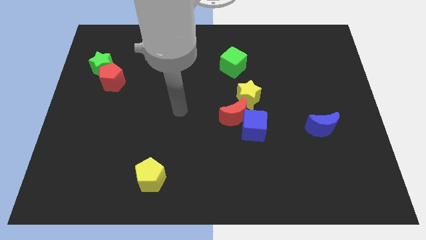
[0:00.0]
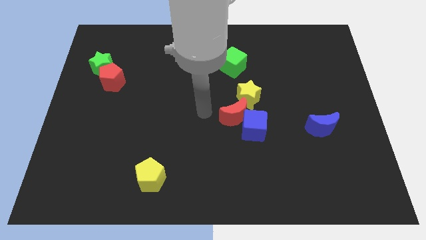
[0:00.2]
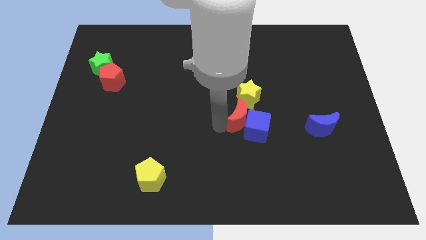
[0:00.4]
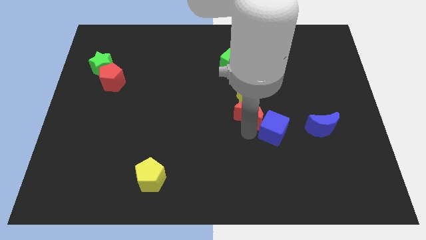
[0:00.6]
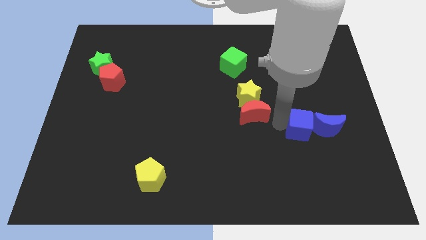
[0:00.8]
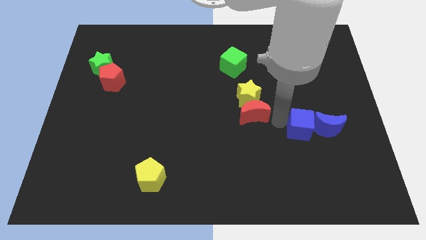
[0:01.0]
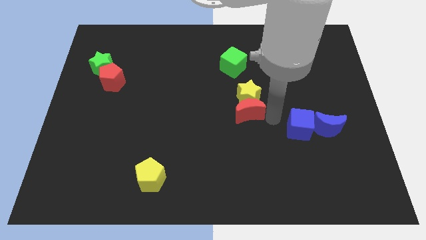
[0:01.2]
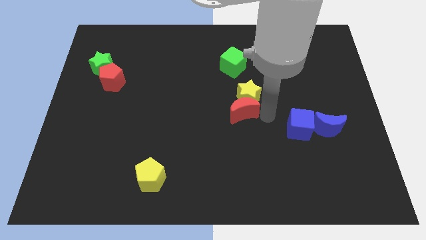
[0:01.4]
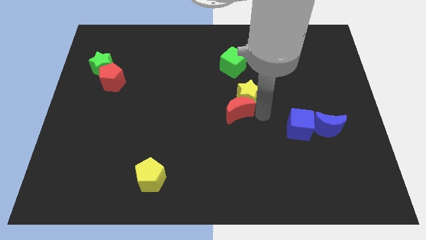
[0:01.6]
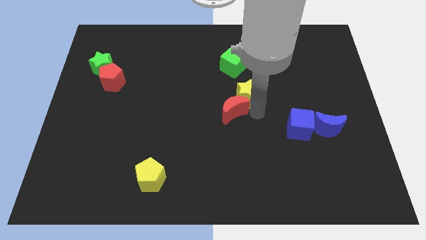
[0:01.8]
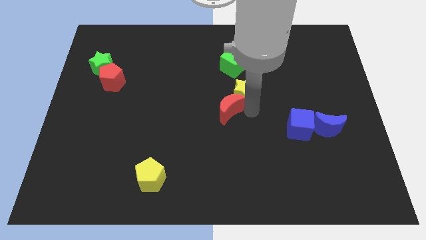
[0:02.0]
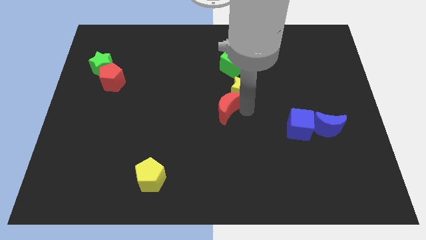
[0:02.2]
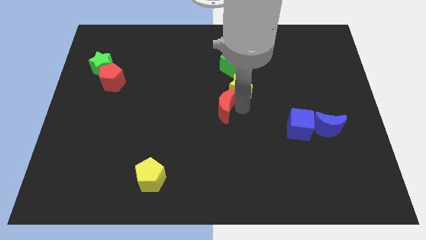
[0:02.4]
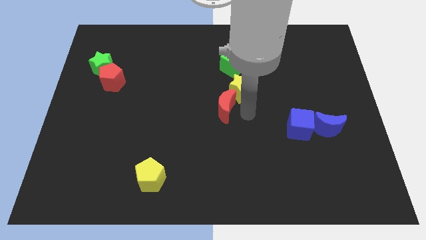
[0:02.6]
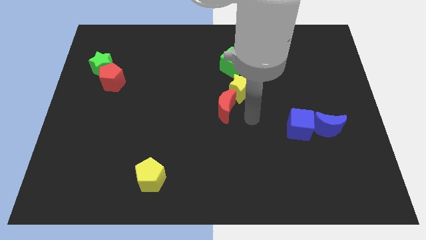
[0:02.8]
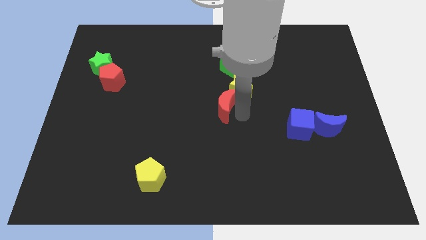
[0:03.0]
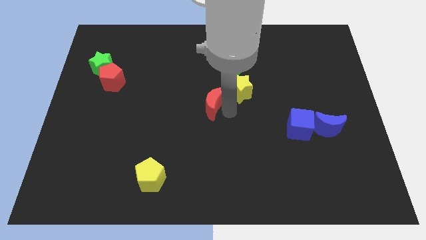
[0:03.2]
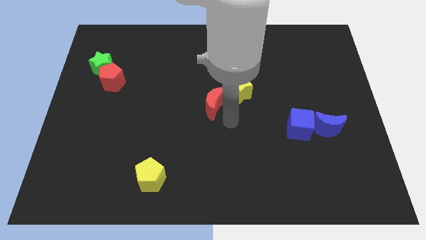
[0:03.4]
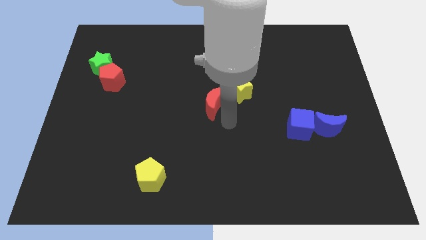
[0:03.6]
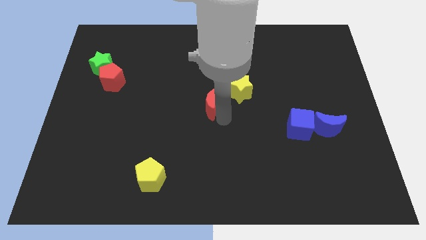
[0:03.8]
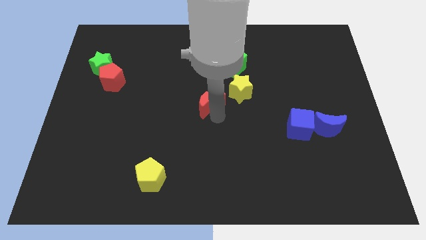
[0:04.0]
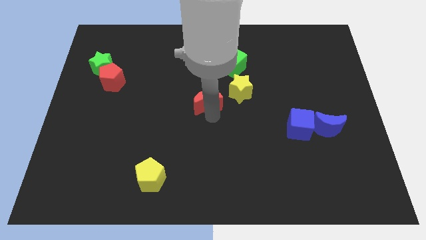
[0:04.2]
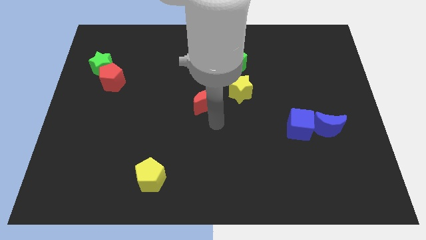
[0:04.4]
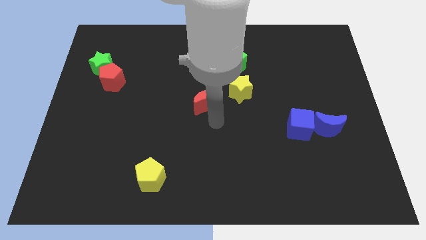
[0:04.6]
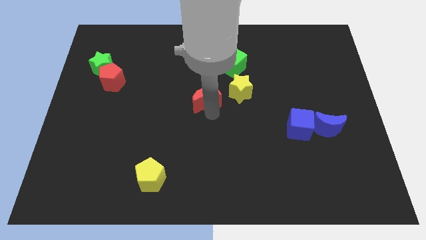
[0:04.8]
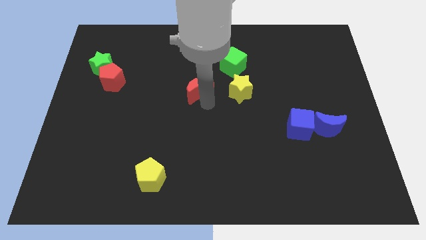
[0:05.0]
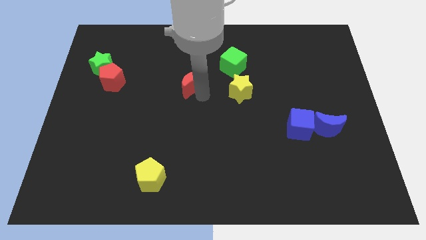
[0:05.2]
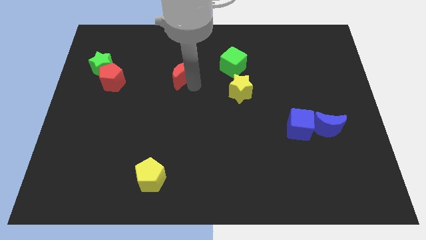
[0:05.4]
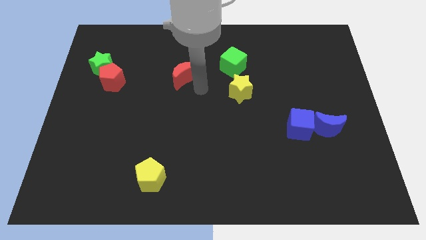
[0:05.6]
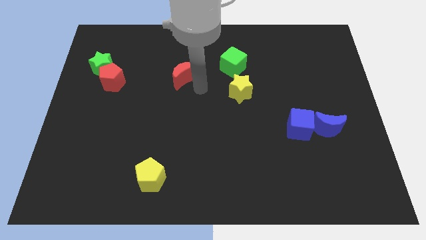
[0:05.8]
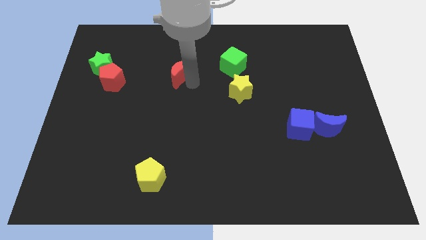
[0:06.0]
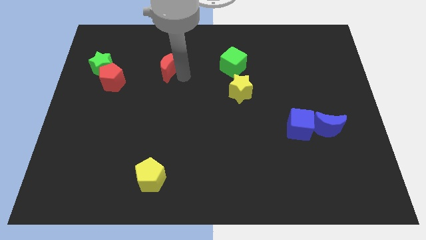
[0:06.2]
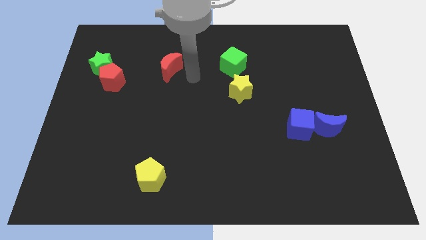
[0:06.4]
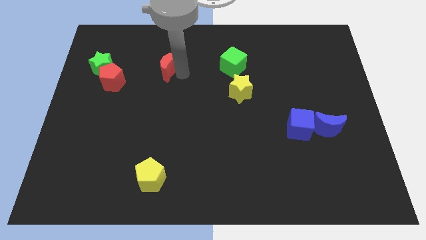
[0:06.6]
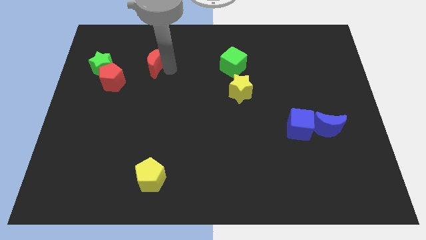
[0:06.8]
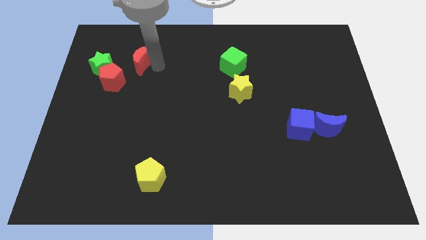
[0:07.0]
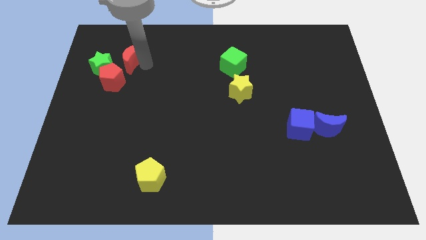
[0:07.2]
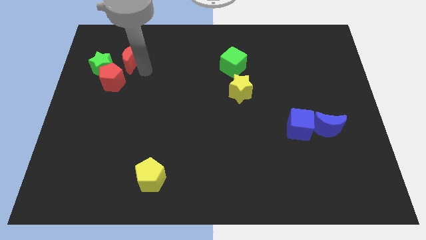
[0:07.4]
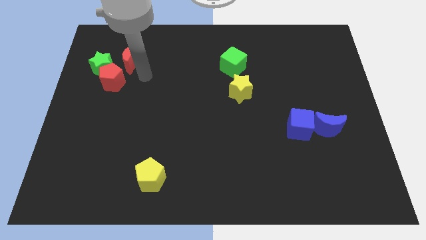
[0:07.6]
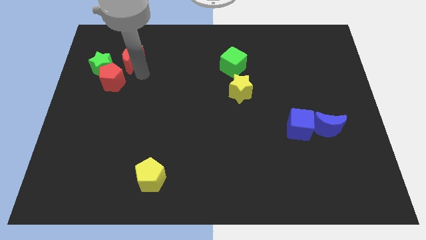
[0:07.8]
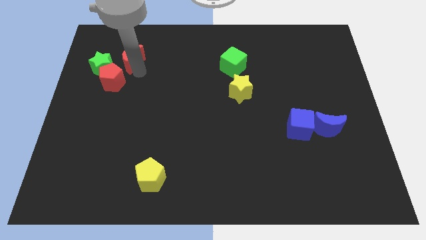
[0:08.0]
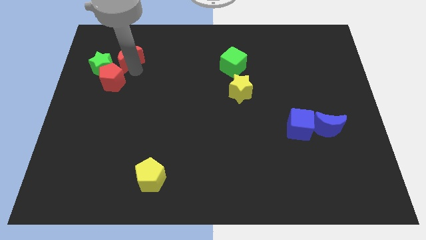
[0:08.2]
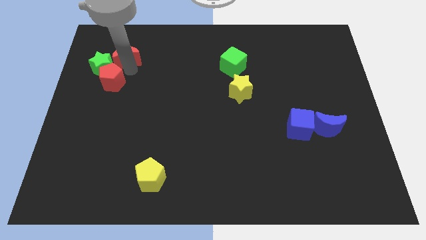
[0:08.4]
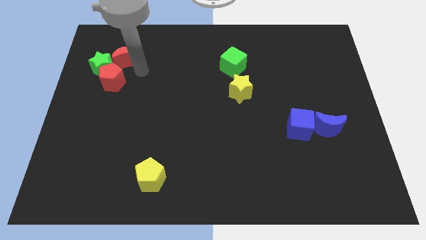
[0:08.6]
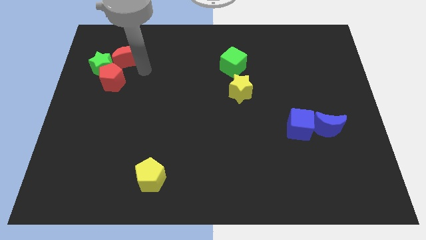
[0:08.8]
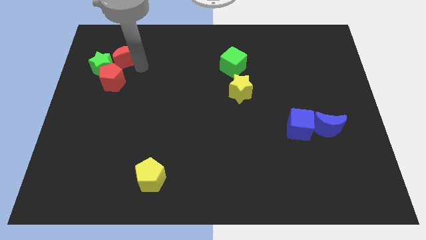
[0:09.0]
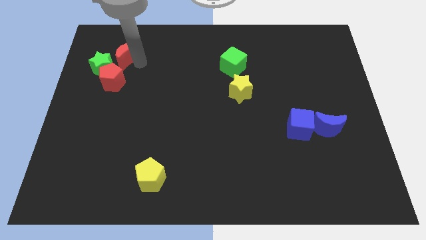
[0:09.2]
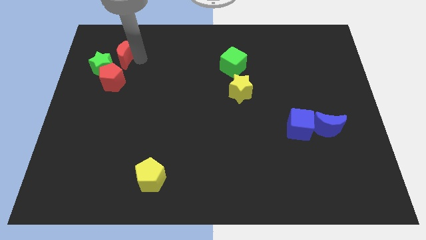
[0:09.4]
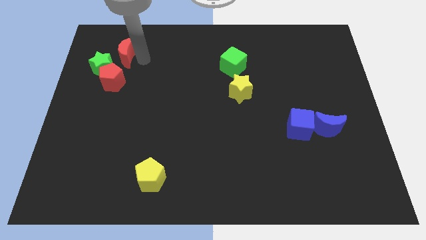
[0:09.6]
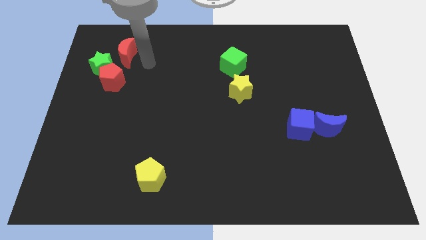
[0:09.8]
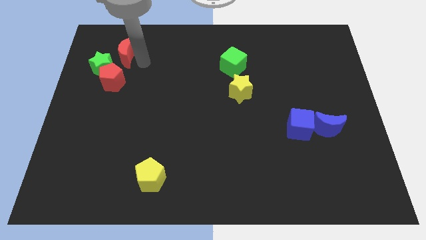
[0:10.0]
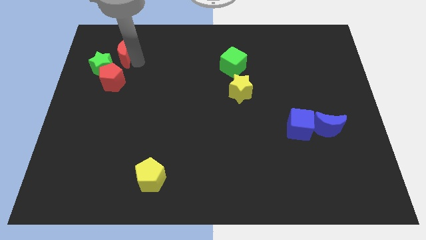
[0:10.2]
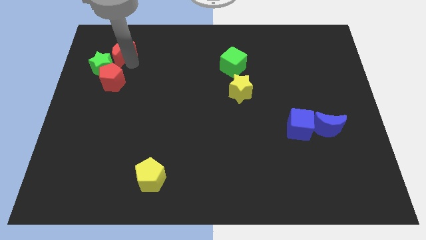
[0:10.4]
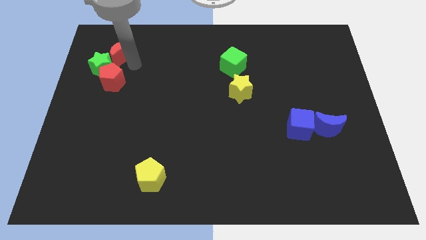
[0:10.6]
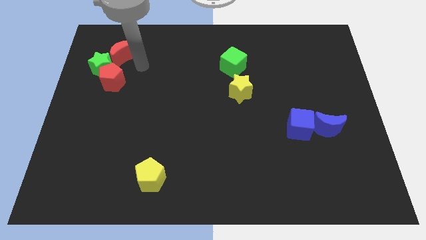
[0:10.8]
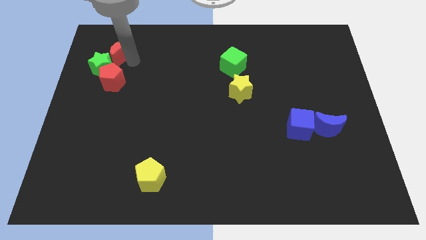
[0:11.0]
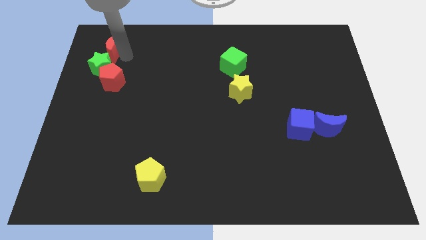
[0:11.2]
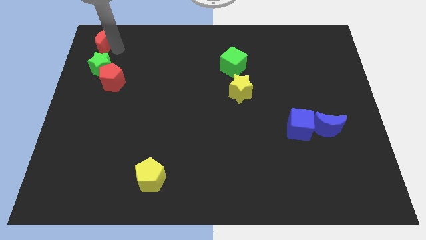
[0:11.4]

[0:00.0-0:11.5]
push the red moon to the top left corner

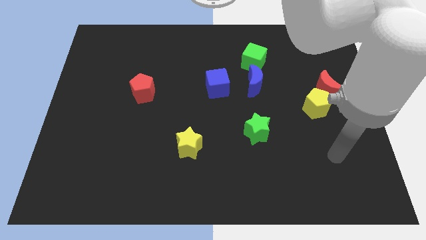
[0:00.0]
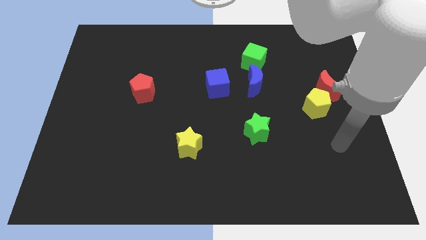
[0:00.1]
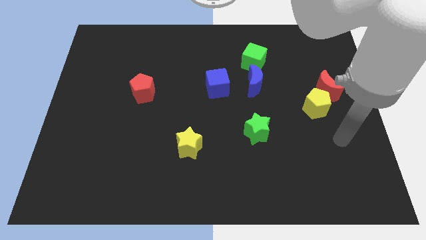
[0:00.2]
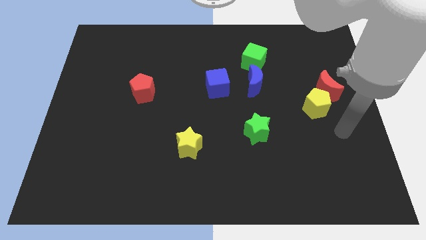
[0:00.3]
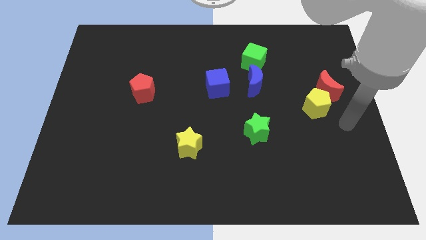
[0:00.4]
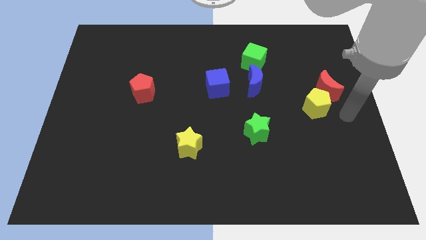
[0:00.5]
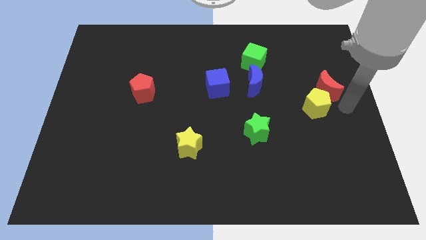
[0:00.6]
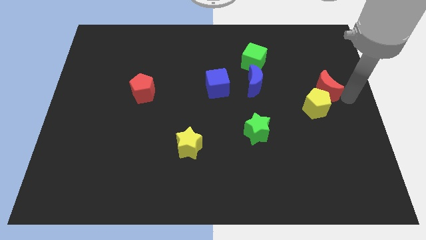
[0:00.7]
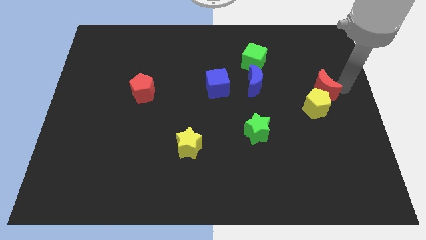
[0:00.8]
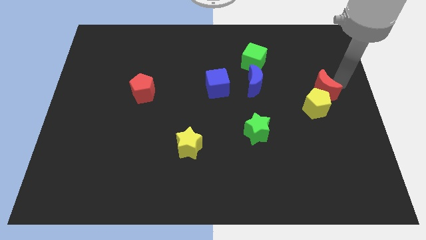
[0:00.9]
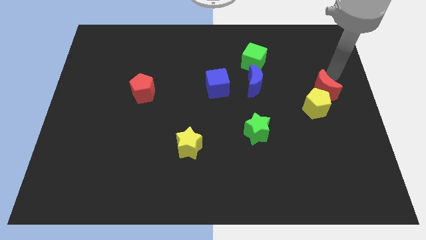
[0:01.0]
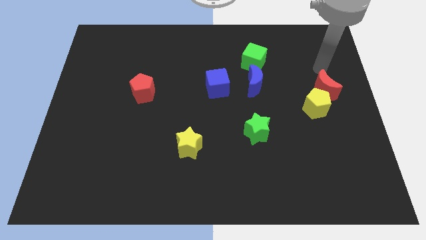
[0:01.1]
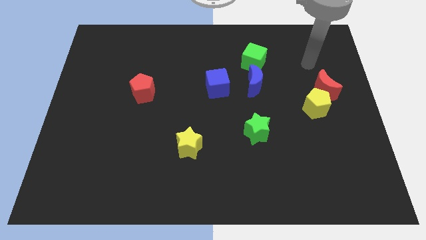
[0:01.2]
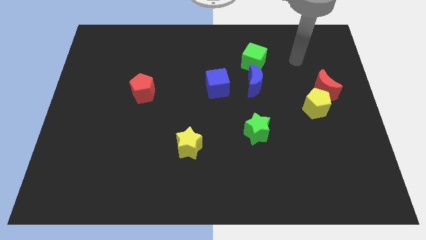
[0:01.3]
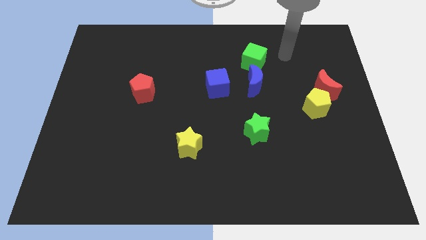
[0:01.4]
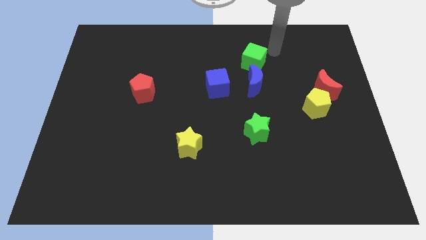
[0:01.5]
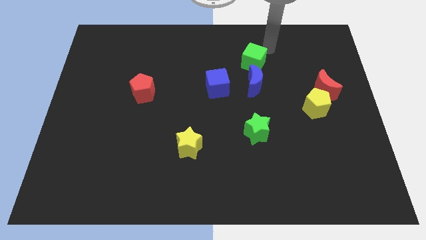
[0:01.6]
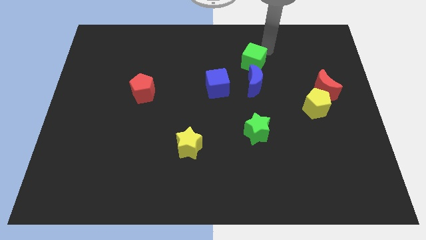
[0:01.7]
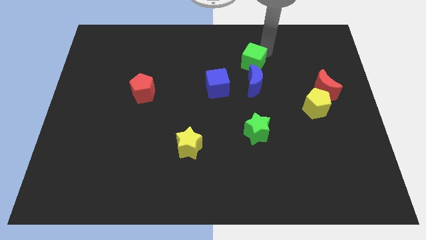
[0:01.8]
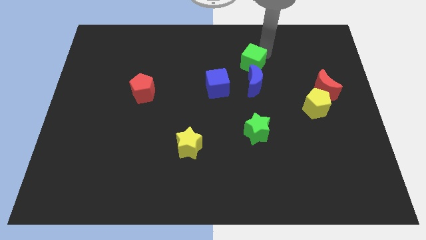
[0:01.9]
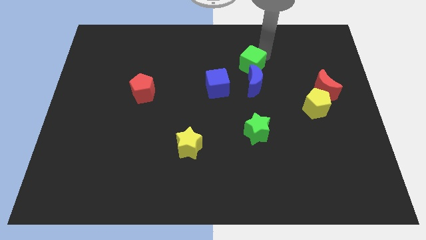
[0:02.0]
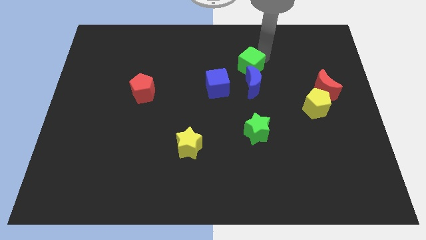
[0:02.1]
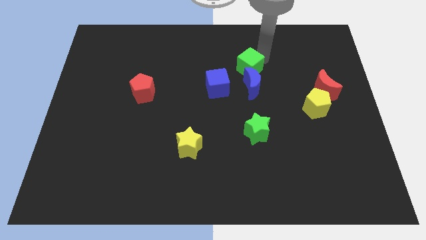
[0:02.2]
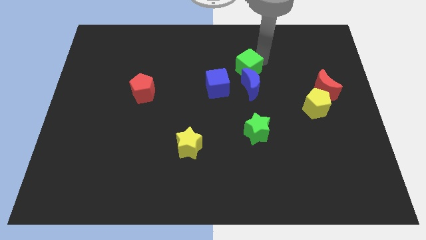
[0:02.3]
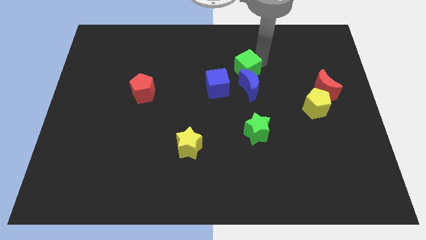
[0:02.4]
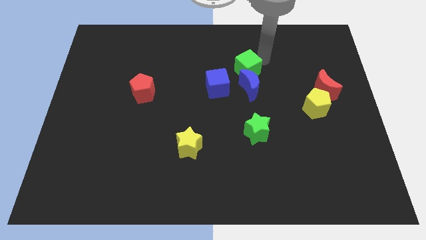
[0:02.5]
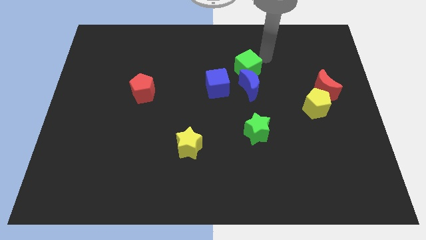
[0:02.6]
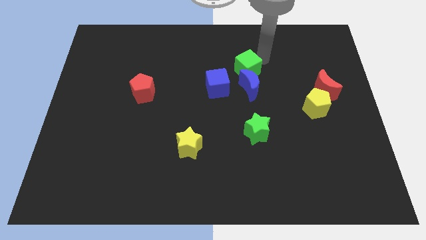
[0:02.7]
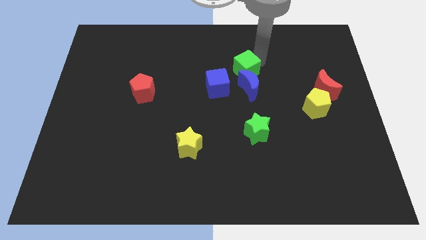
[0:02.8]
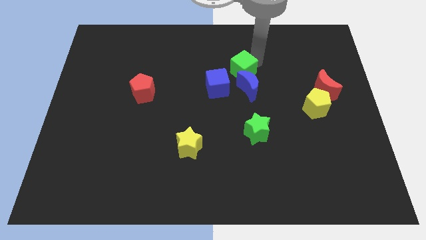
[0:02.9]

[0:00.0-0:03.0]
slide the green cube to the center
